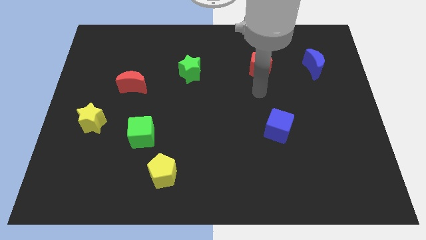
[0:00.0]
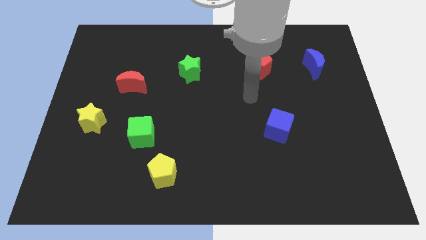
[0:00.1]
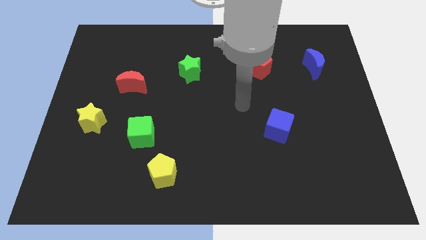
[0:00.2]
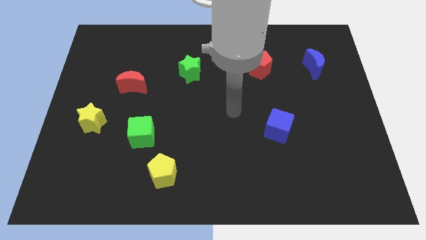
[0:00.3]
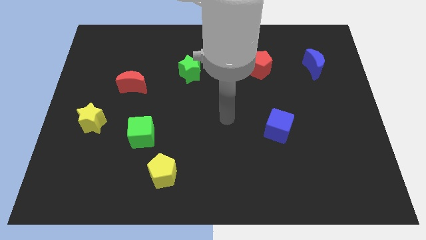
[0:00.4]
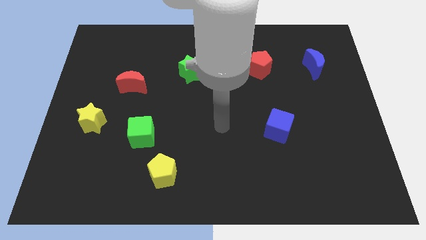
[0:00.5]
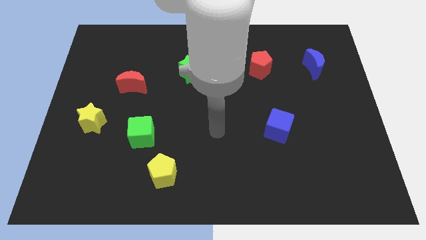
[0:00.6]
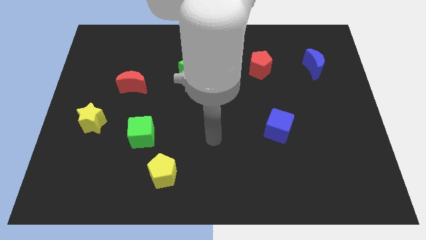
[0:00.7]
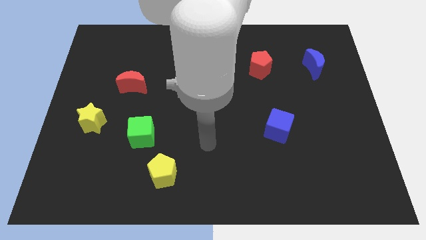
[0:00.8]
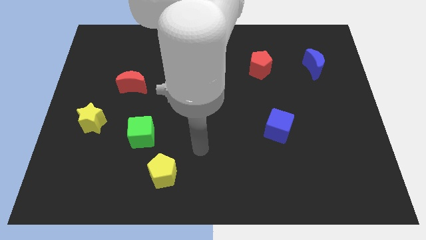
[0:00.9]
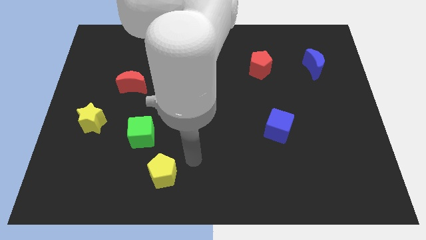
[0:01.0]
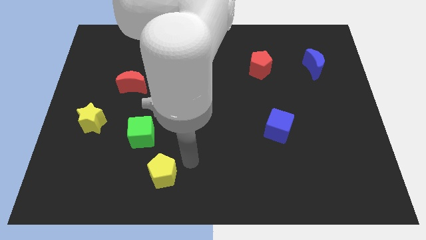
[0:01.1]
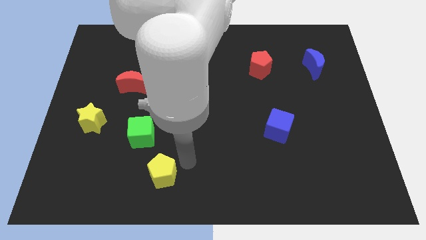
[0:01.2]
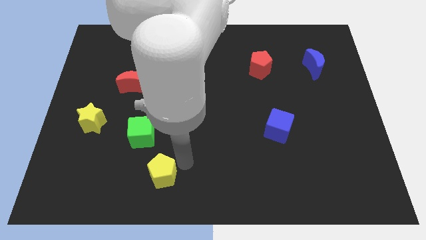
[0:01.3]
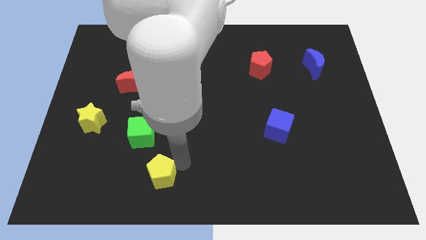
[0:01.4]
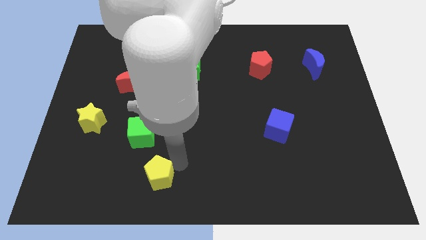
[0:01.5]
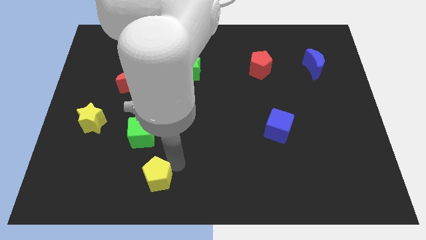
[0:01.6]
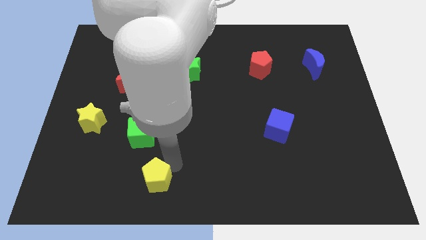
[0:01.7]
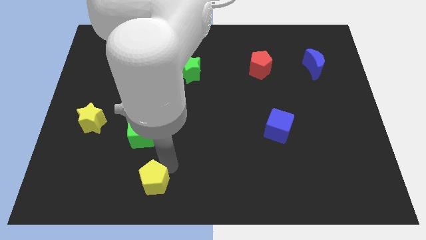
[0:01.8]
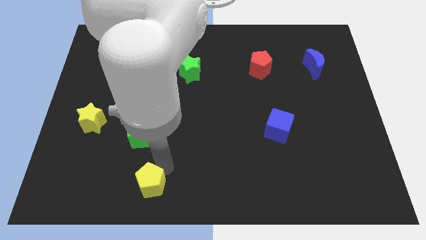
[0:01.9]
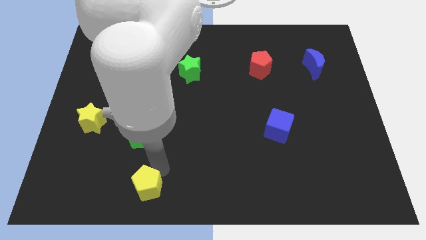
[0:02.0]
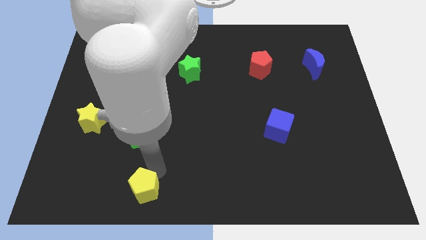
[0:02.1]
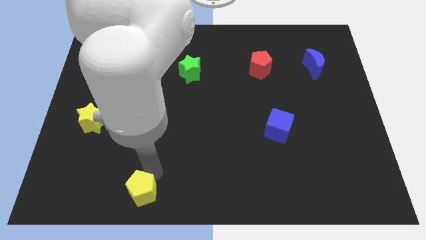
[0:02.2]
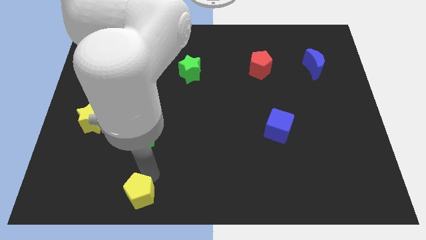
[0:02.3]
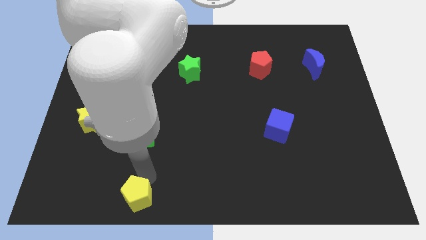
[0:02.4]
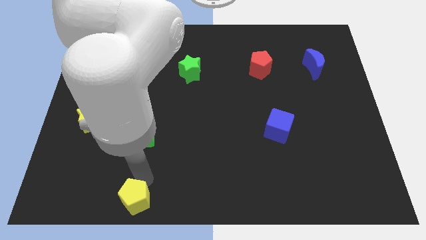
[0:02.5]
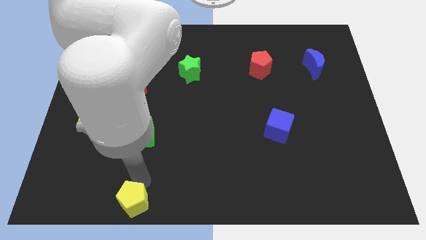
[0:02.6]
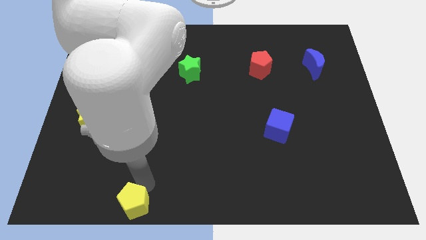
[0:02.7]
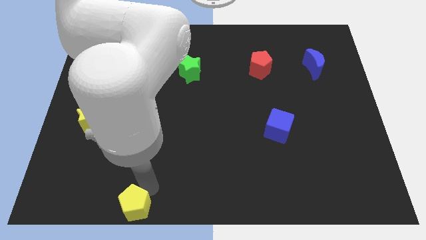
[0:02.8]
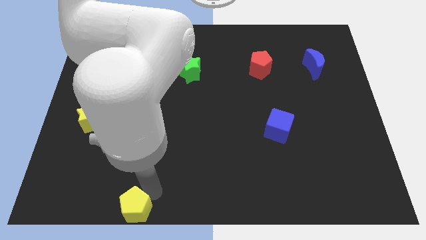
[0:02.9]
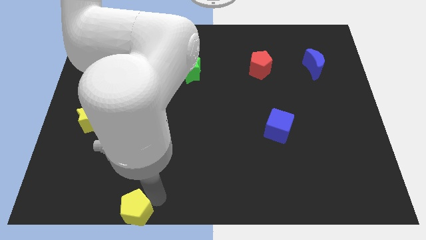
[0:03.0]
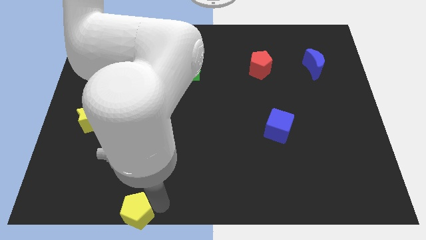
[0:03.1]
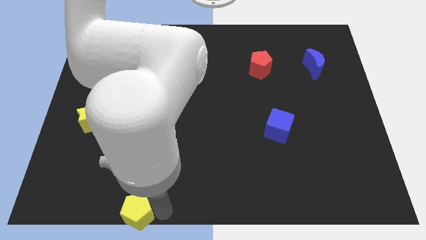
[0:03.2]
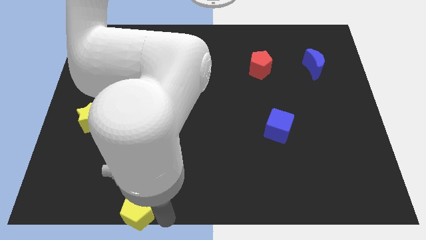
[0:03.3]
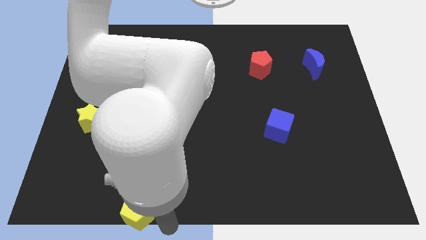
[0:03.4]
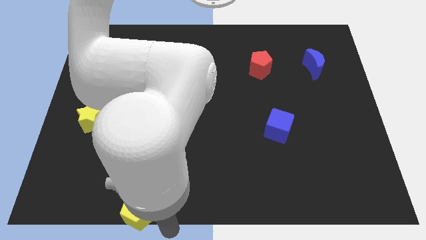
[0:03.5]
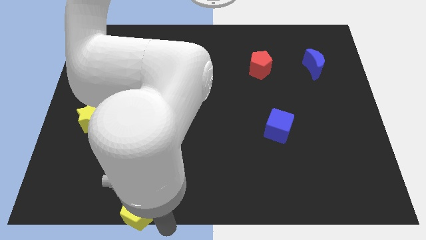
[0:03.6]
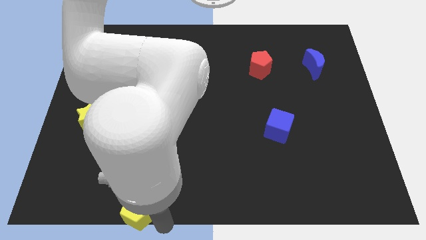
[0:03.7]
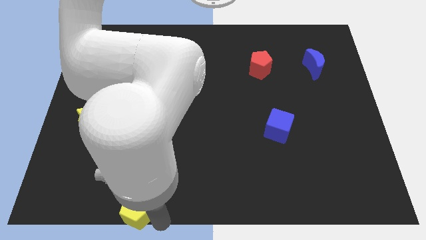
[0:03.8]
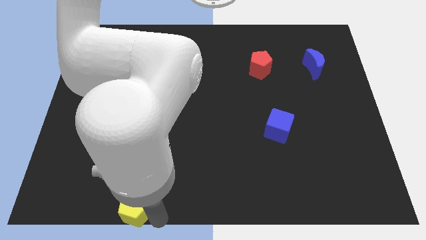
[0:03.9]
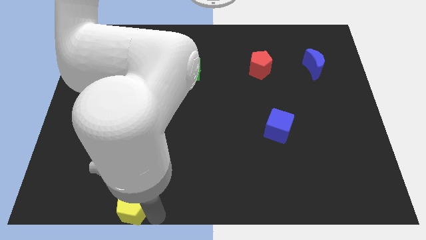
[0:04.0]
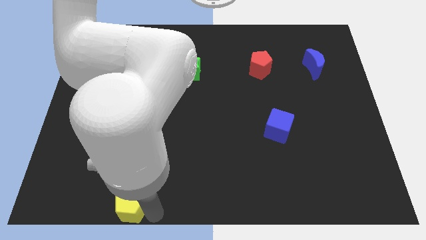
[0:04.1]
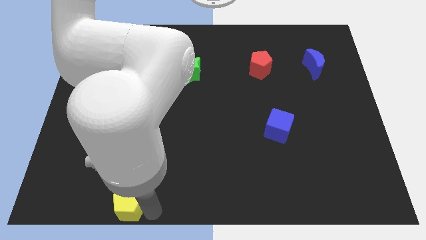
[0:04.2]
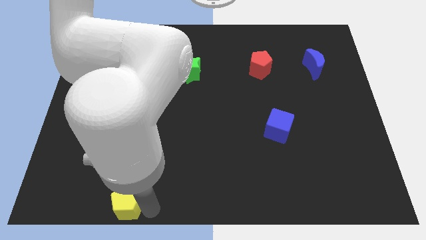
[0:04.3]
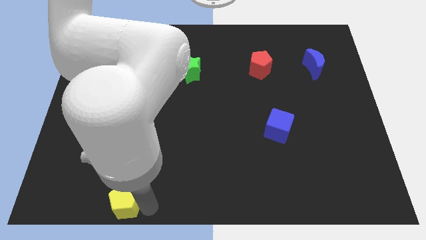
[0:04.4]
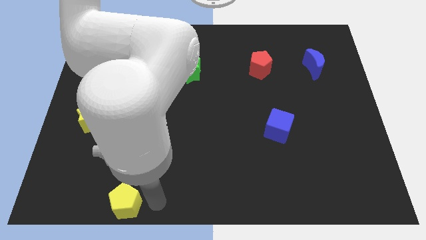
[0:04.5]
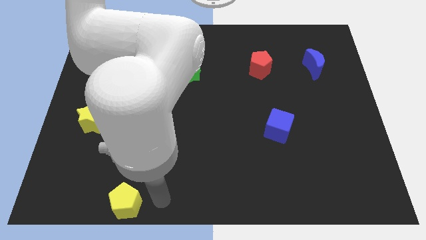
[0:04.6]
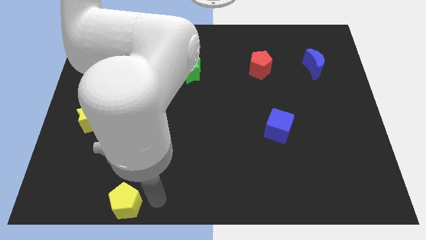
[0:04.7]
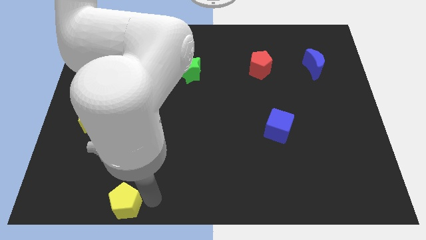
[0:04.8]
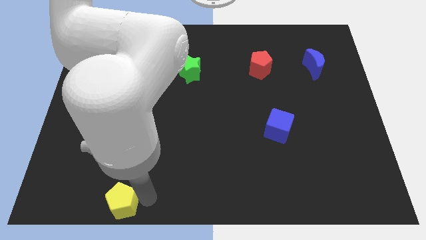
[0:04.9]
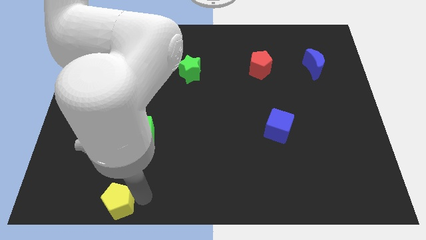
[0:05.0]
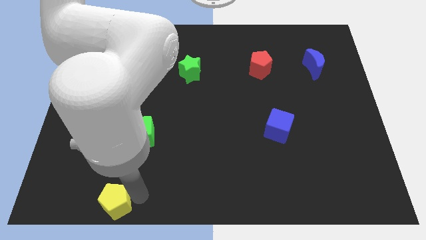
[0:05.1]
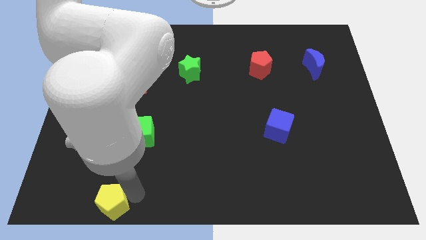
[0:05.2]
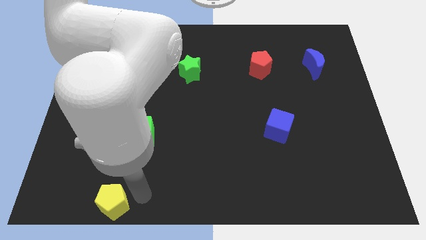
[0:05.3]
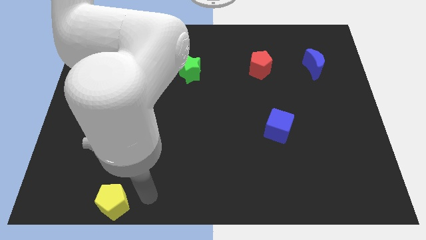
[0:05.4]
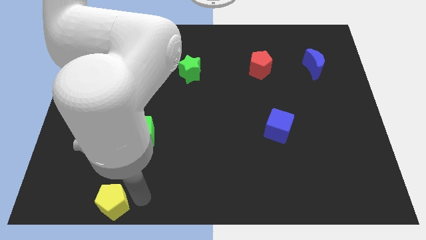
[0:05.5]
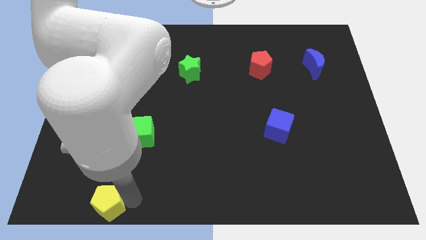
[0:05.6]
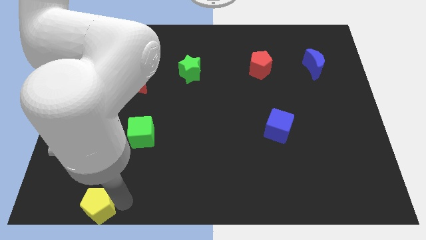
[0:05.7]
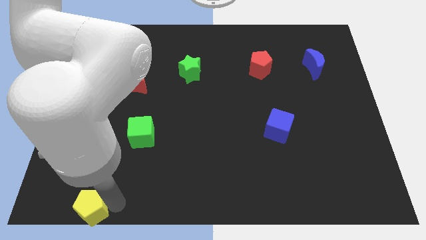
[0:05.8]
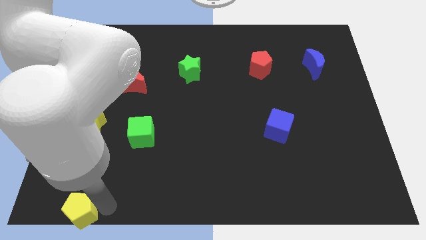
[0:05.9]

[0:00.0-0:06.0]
push the yellow pentagon to the bottom left corner
